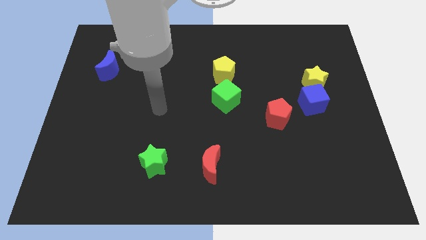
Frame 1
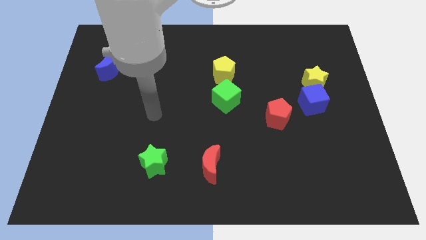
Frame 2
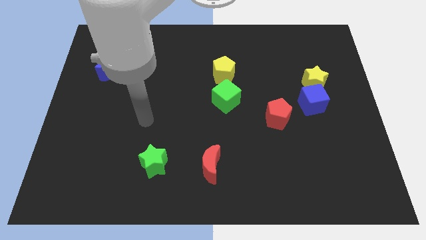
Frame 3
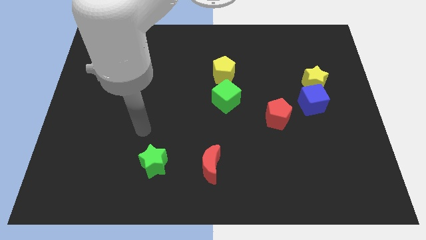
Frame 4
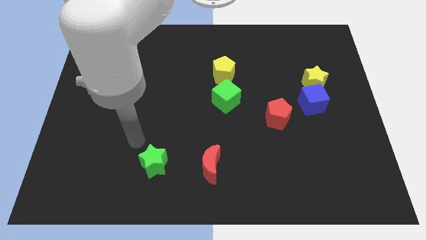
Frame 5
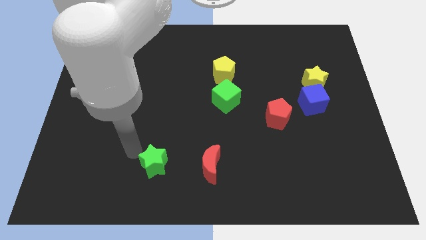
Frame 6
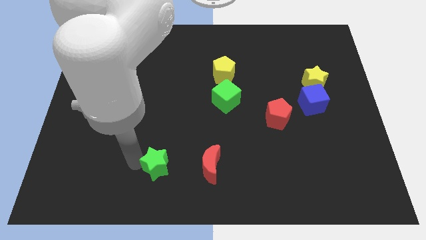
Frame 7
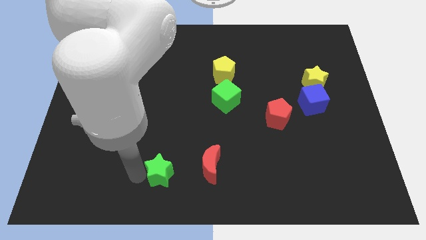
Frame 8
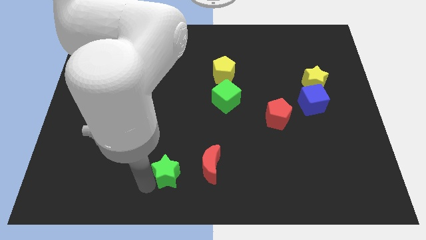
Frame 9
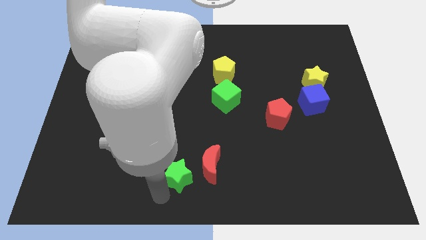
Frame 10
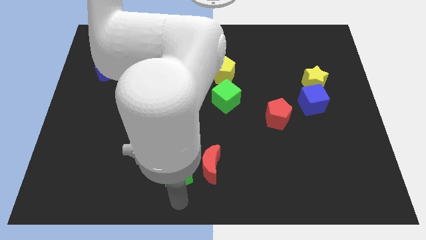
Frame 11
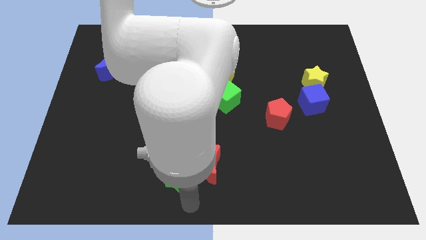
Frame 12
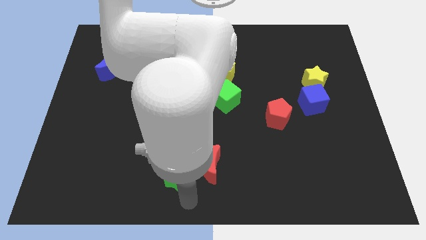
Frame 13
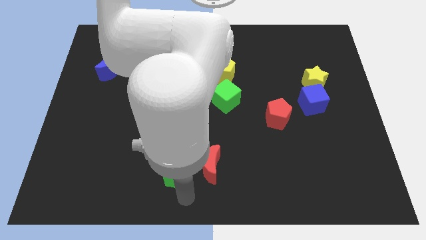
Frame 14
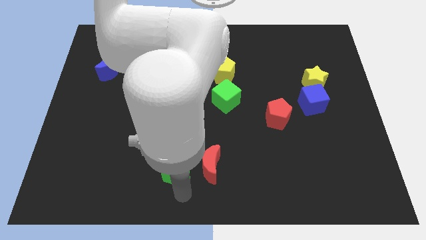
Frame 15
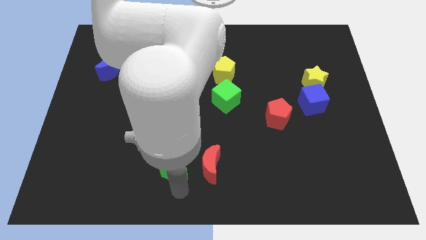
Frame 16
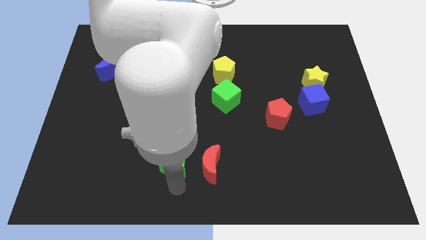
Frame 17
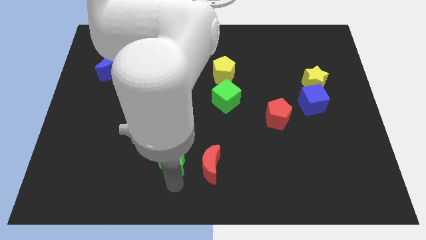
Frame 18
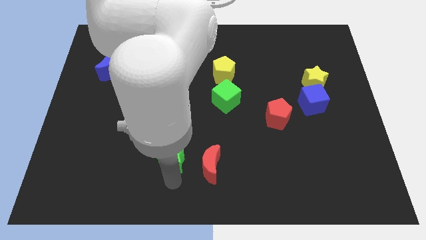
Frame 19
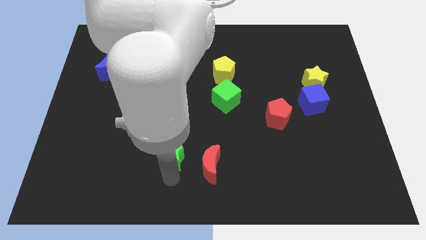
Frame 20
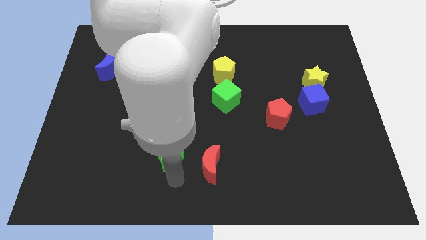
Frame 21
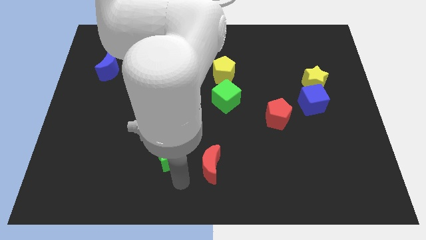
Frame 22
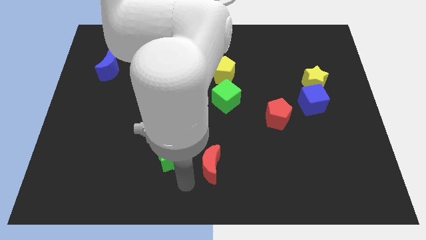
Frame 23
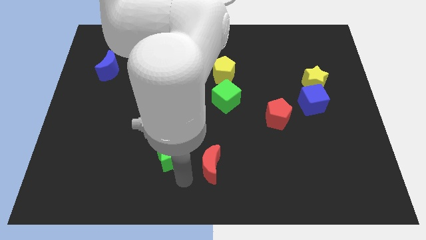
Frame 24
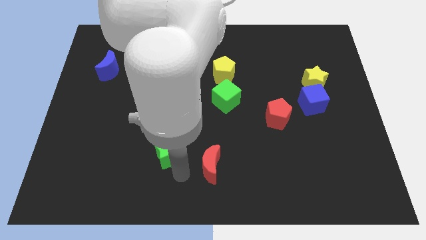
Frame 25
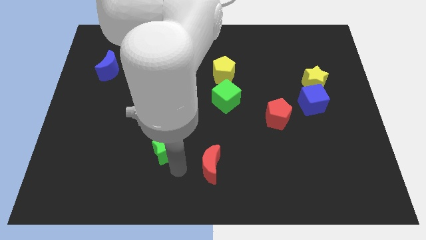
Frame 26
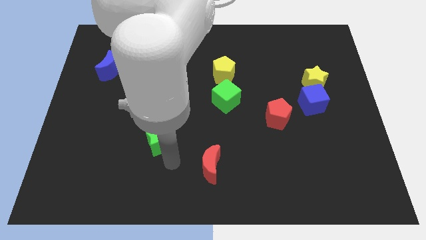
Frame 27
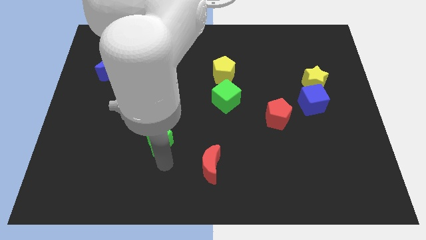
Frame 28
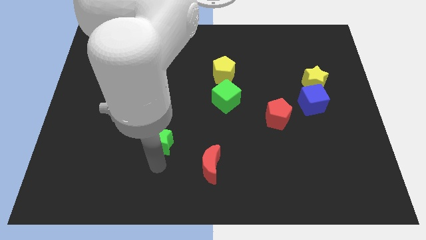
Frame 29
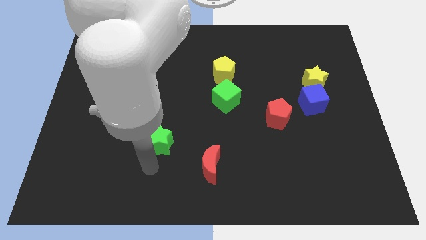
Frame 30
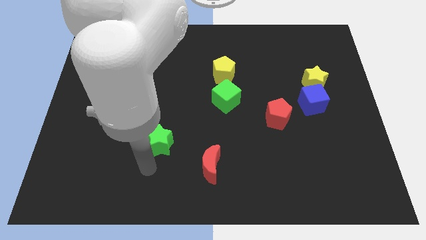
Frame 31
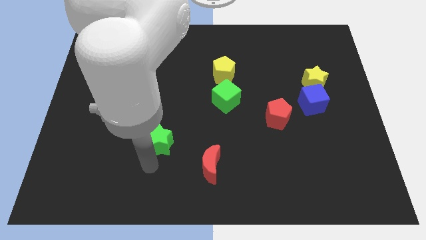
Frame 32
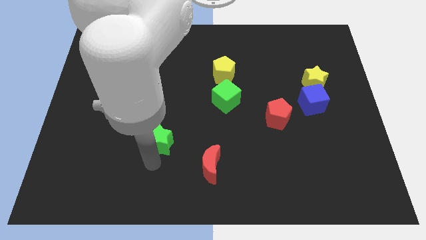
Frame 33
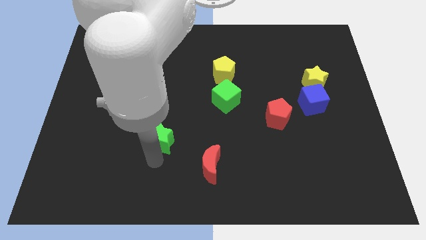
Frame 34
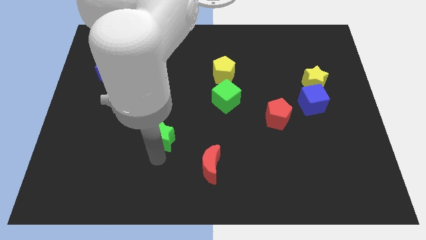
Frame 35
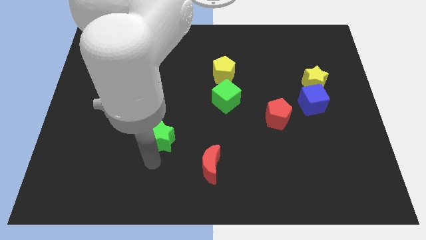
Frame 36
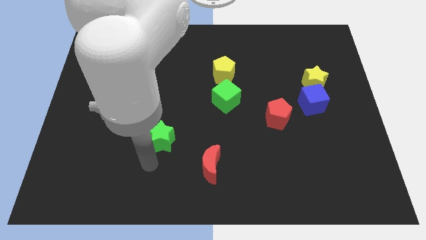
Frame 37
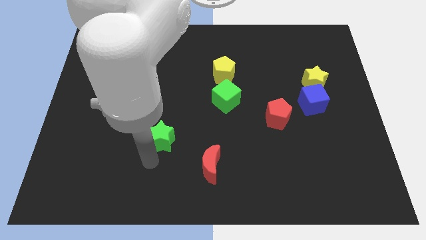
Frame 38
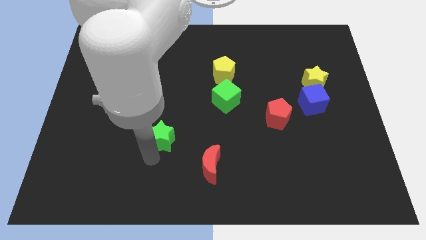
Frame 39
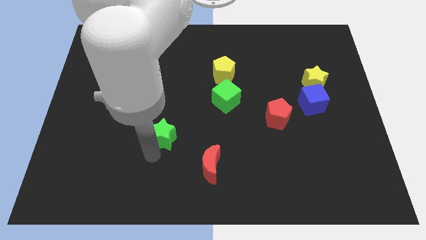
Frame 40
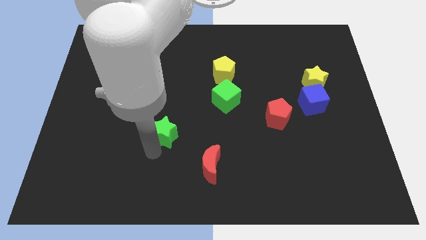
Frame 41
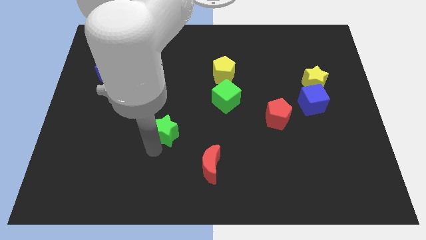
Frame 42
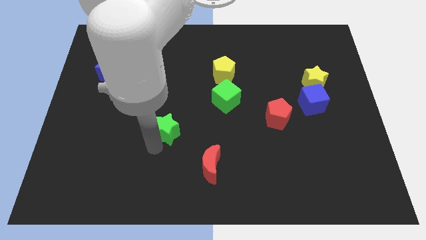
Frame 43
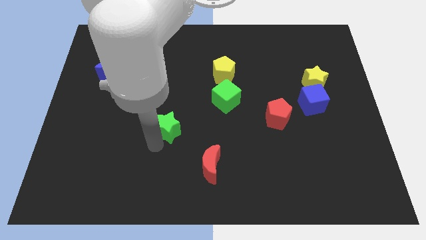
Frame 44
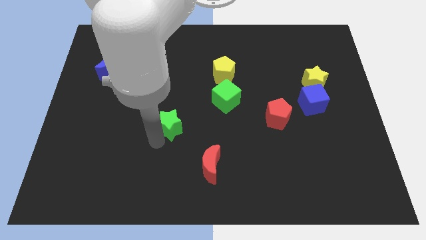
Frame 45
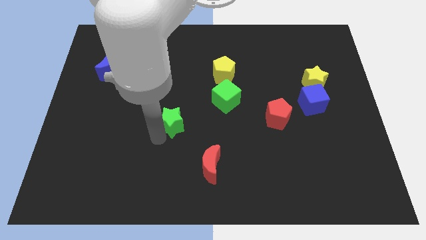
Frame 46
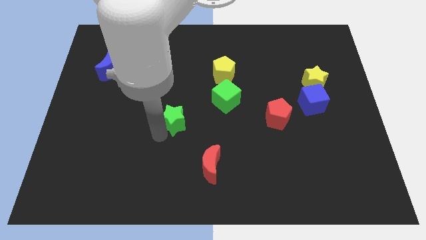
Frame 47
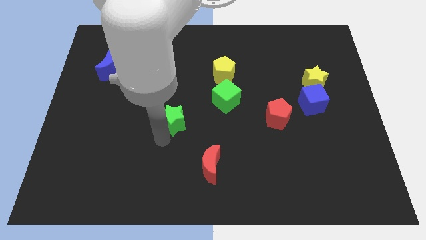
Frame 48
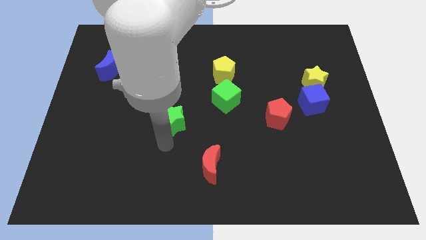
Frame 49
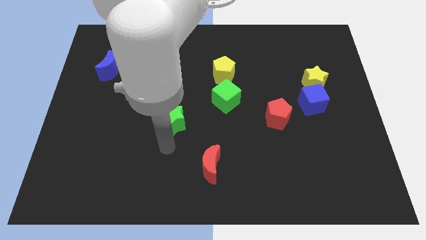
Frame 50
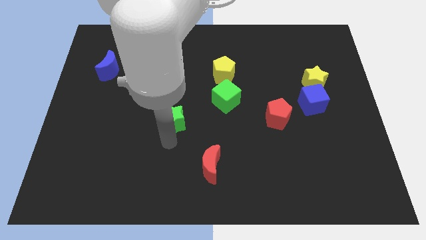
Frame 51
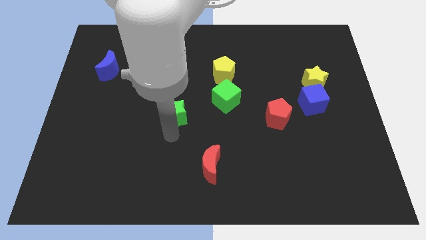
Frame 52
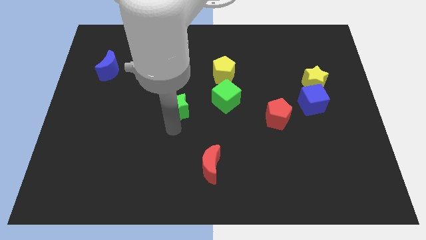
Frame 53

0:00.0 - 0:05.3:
put the green star to the left side of the green cube

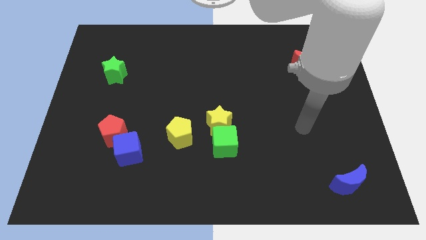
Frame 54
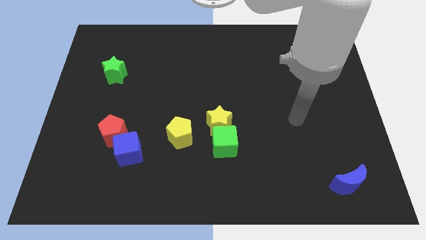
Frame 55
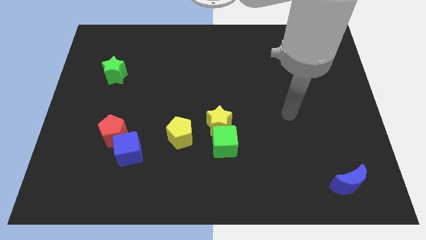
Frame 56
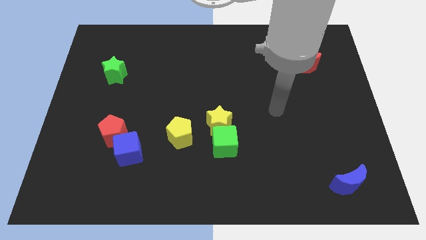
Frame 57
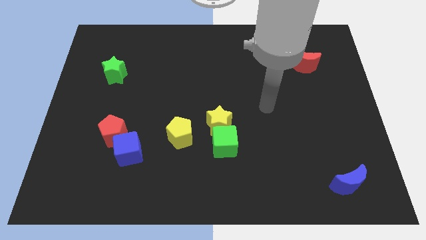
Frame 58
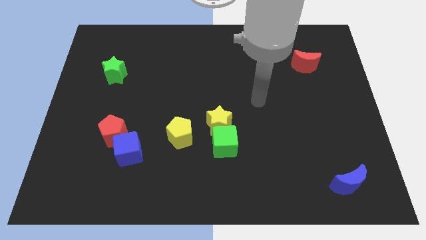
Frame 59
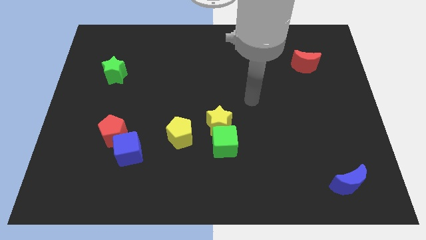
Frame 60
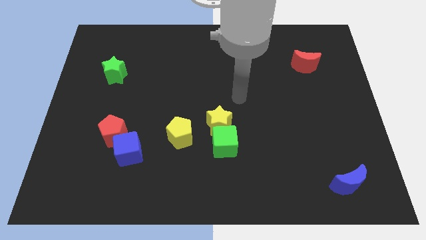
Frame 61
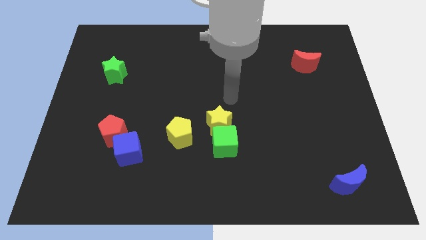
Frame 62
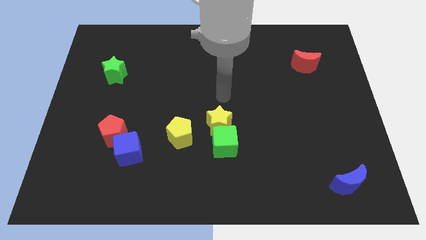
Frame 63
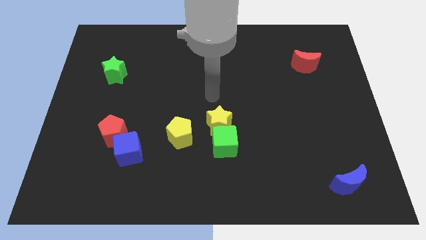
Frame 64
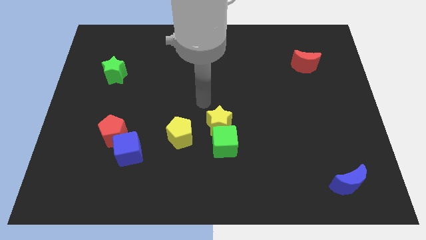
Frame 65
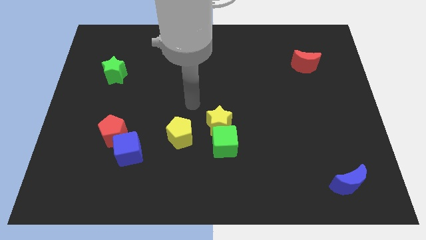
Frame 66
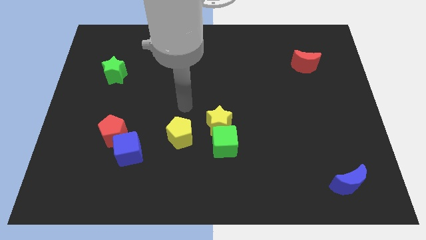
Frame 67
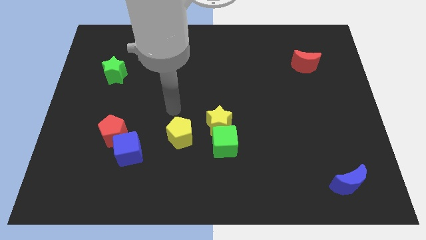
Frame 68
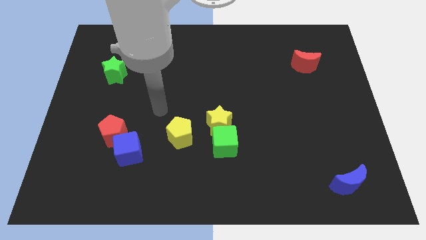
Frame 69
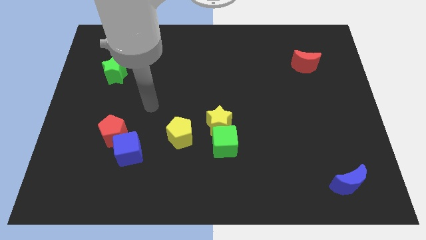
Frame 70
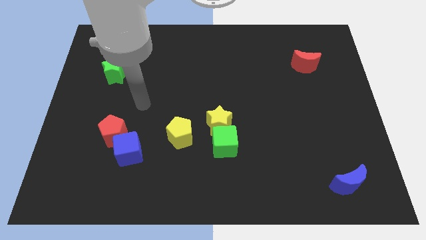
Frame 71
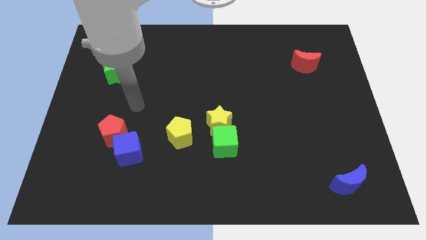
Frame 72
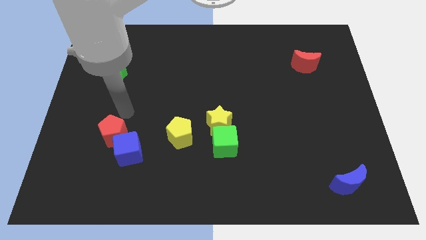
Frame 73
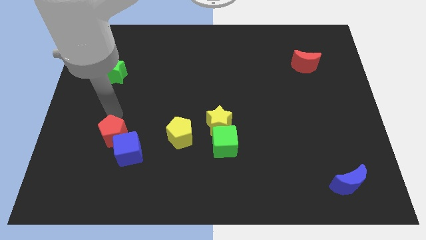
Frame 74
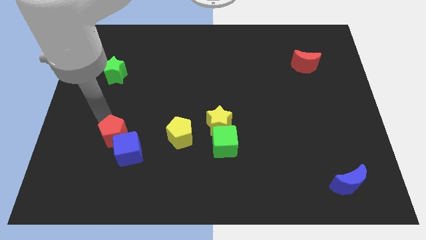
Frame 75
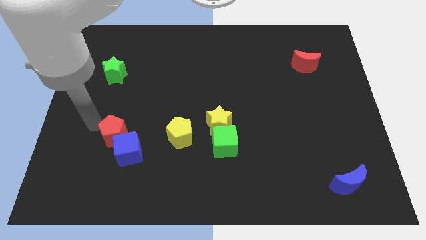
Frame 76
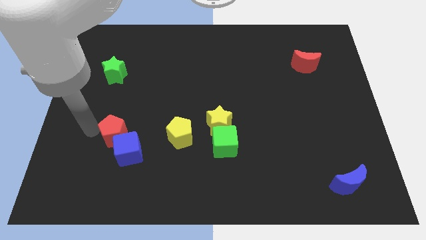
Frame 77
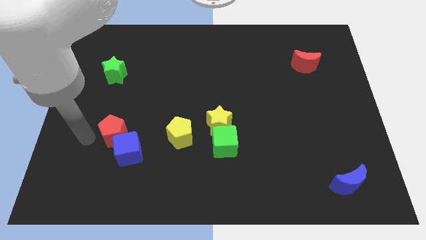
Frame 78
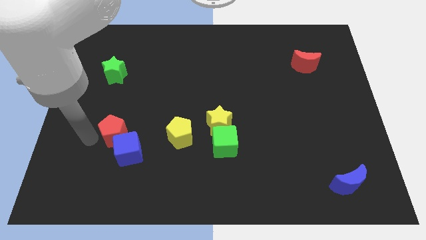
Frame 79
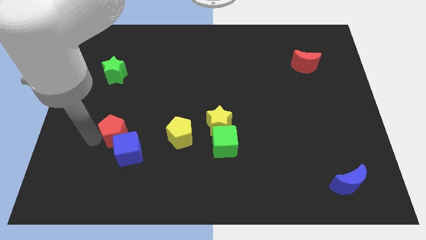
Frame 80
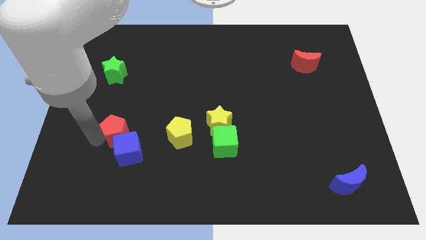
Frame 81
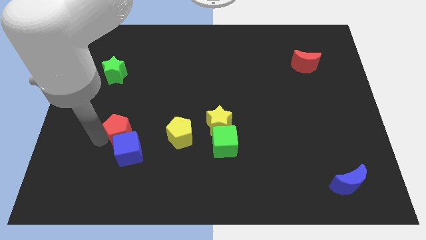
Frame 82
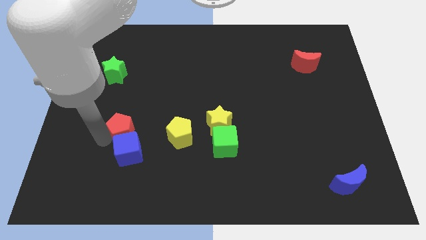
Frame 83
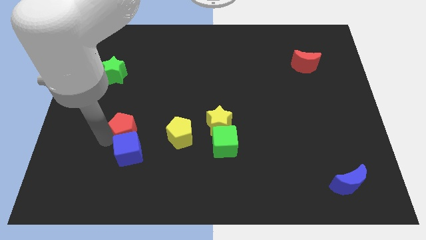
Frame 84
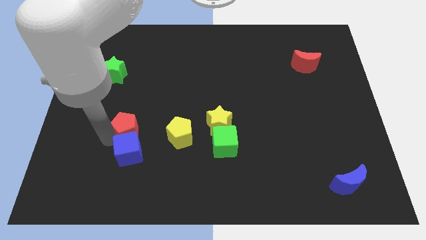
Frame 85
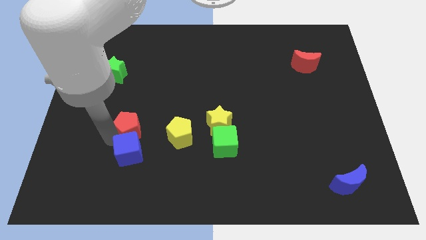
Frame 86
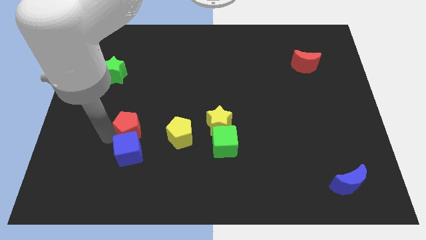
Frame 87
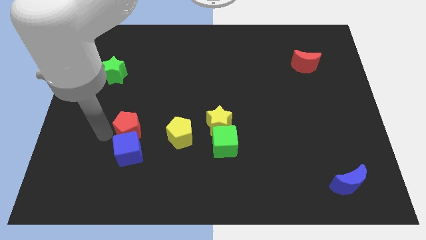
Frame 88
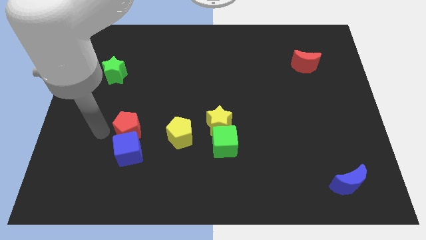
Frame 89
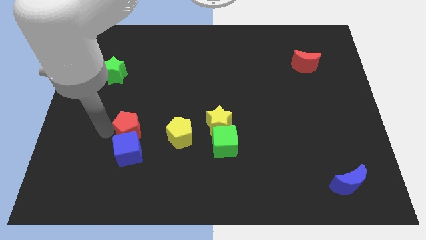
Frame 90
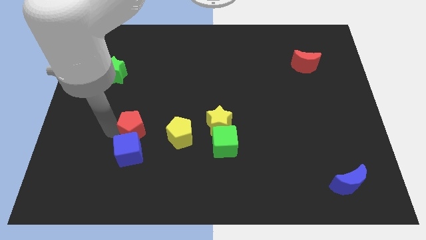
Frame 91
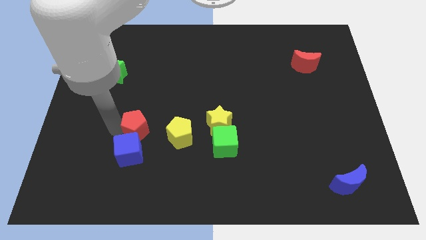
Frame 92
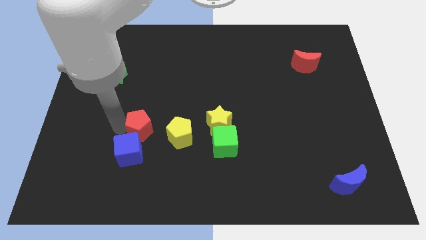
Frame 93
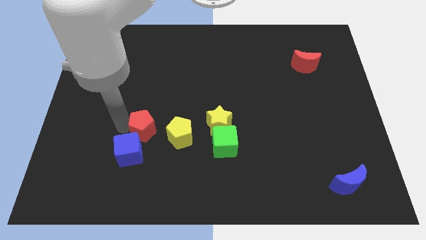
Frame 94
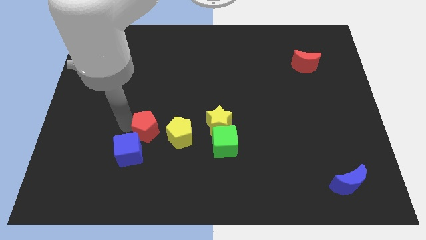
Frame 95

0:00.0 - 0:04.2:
move the red pentagon left of the yellow star
